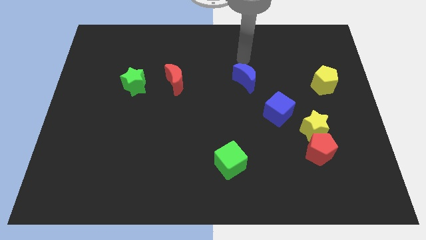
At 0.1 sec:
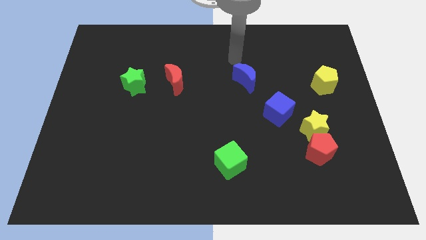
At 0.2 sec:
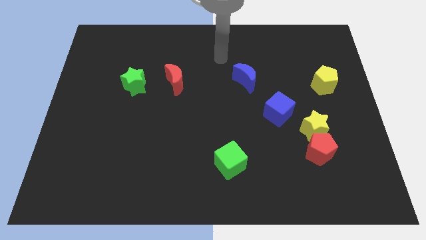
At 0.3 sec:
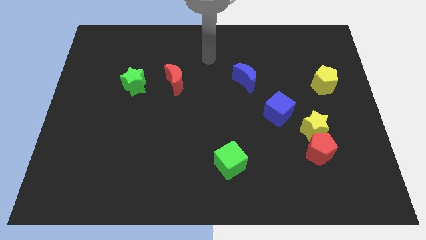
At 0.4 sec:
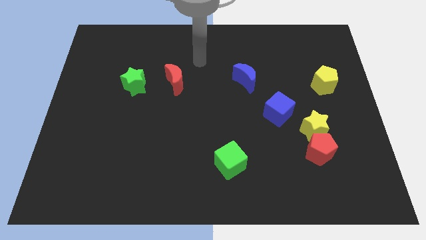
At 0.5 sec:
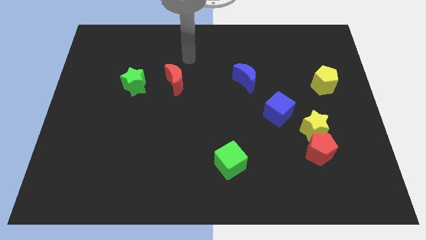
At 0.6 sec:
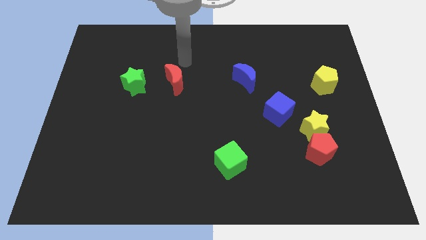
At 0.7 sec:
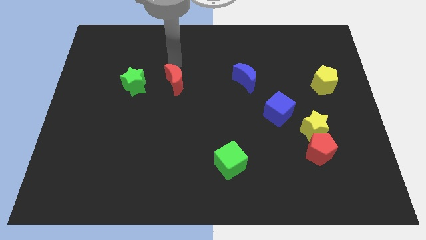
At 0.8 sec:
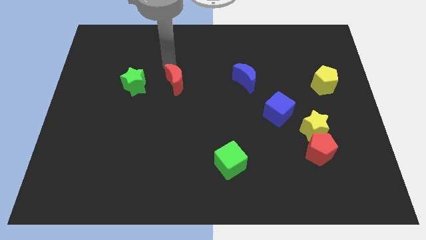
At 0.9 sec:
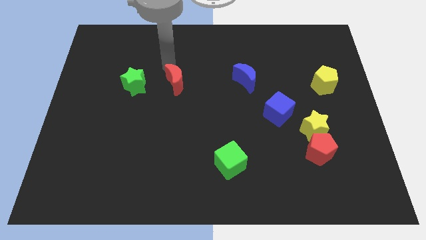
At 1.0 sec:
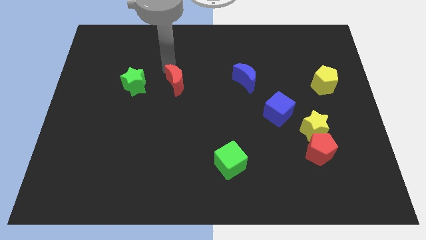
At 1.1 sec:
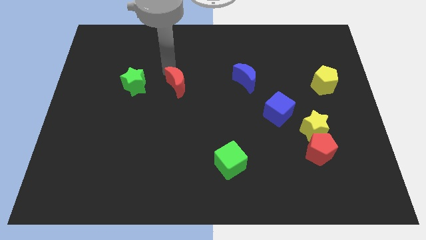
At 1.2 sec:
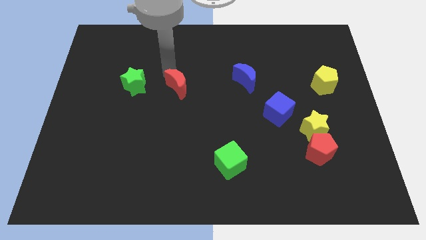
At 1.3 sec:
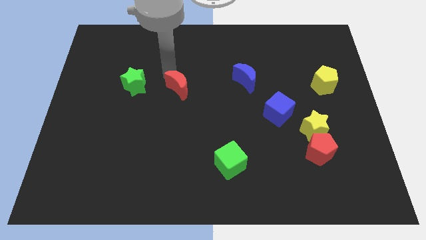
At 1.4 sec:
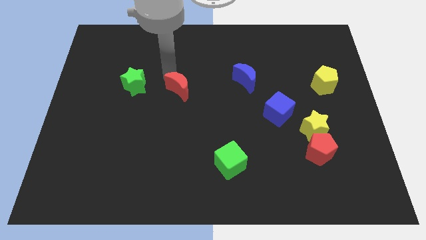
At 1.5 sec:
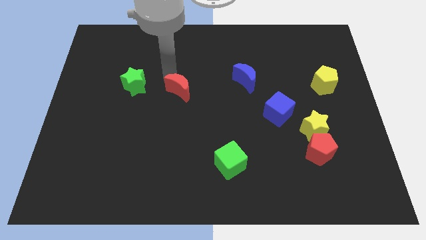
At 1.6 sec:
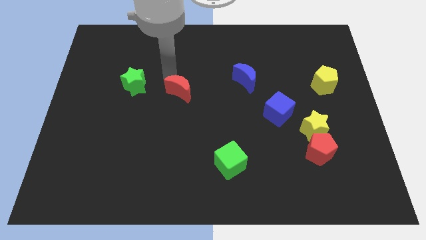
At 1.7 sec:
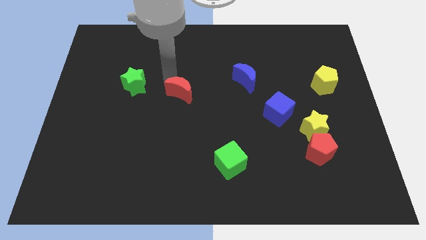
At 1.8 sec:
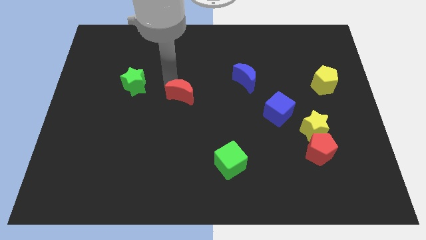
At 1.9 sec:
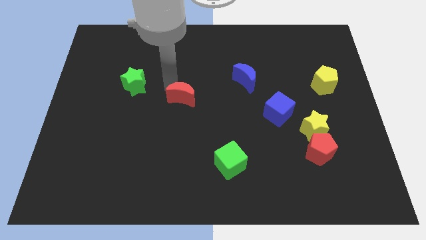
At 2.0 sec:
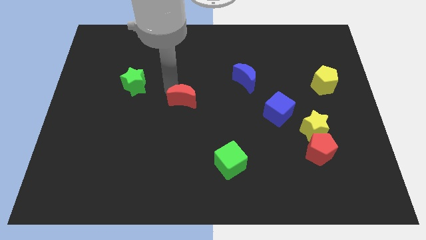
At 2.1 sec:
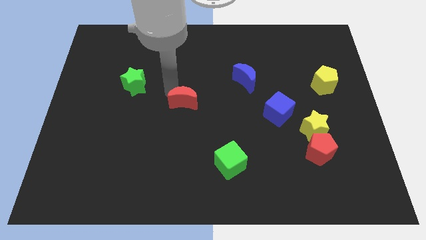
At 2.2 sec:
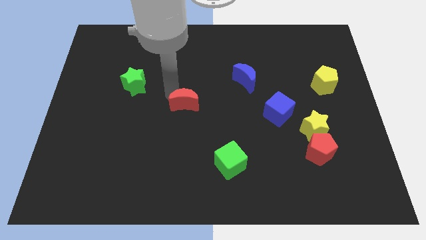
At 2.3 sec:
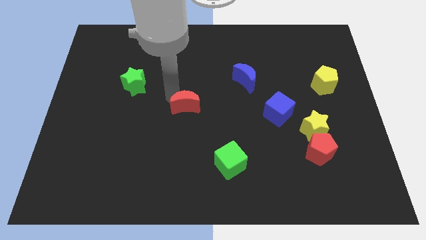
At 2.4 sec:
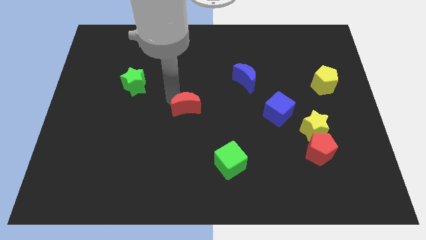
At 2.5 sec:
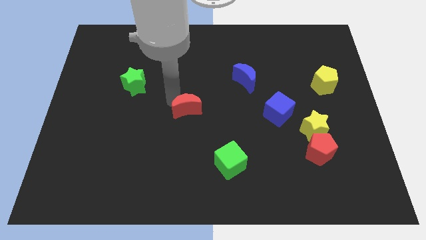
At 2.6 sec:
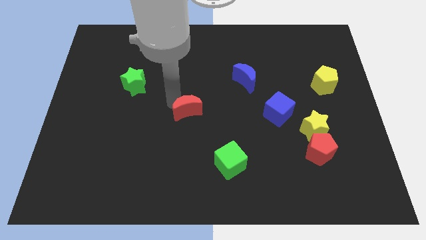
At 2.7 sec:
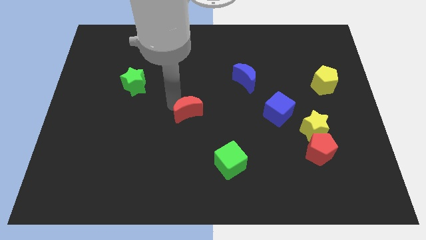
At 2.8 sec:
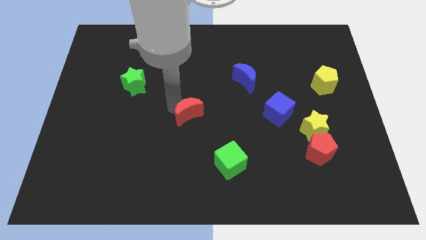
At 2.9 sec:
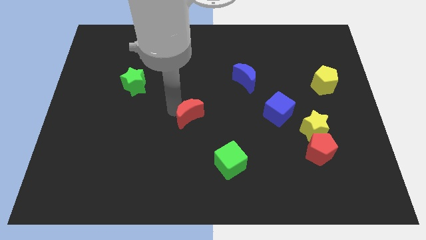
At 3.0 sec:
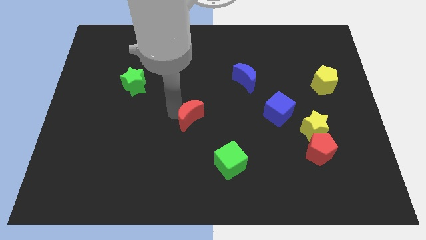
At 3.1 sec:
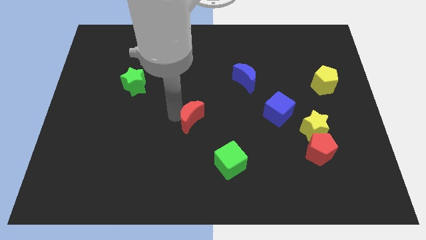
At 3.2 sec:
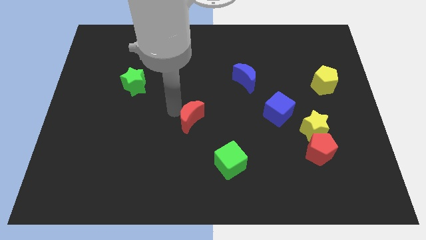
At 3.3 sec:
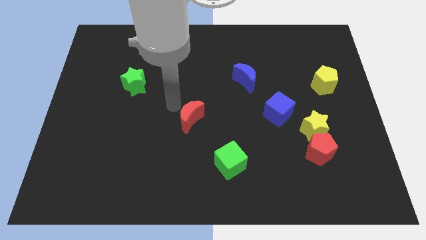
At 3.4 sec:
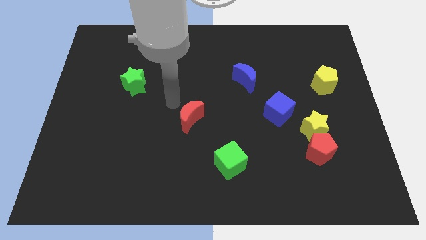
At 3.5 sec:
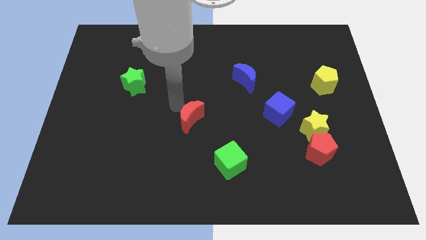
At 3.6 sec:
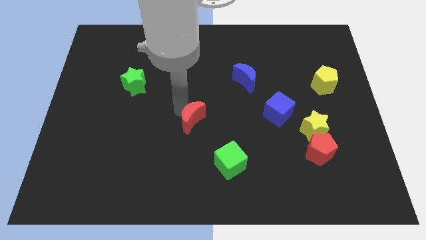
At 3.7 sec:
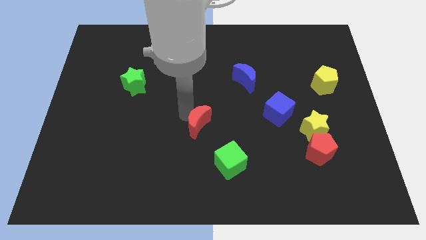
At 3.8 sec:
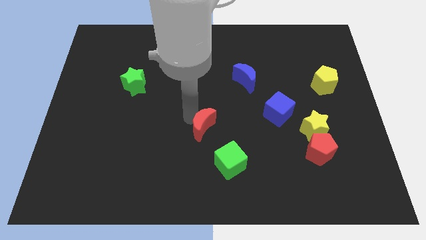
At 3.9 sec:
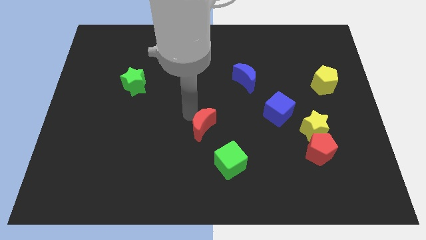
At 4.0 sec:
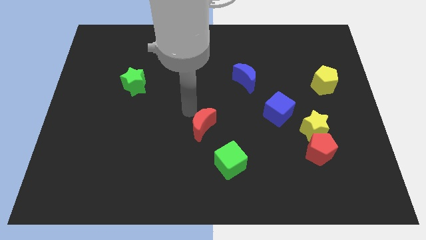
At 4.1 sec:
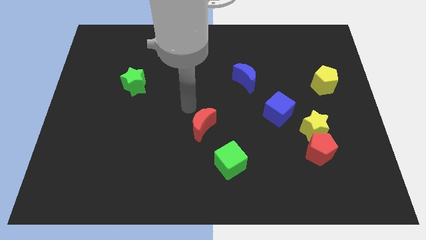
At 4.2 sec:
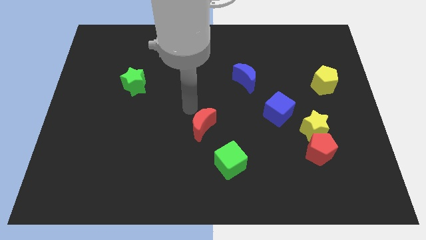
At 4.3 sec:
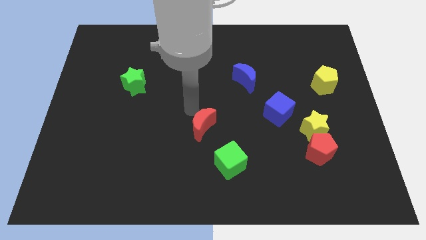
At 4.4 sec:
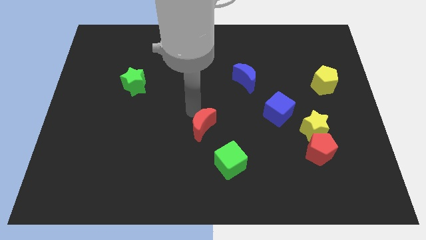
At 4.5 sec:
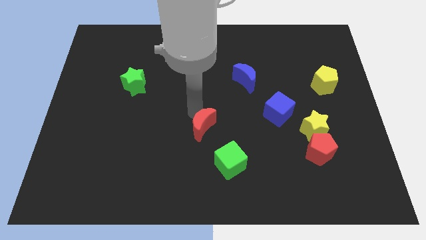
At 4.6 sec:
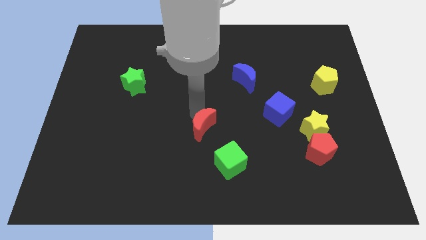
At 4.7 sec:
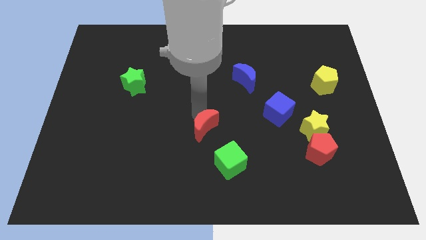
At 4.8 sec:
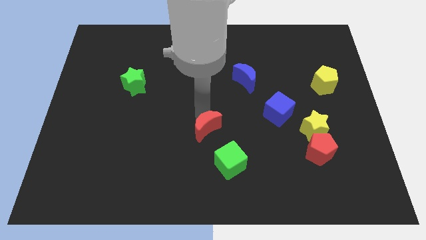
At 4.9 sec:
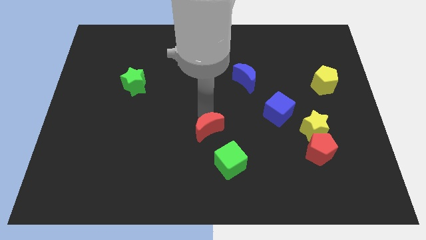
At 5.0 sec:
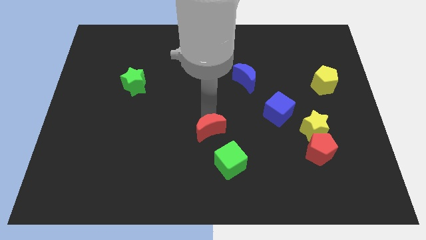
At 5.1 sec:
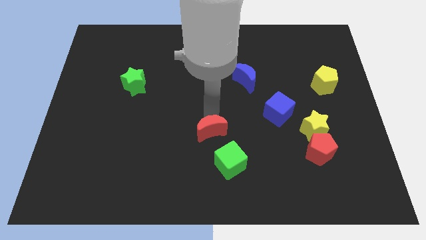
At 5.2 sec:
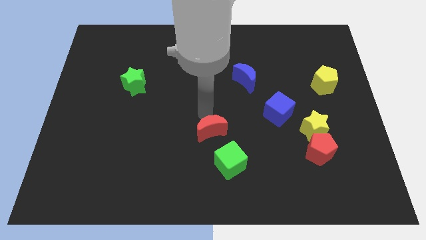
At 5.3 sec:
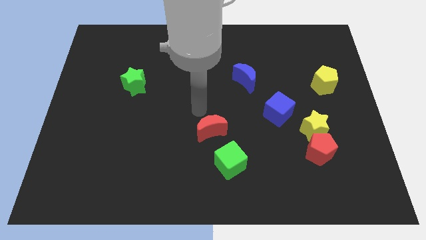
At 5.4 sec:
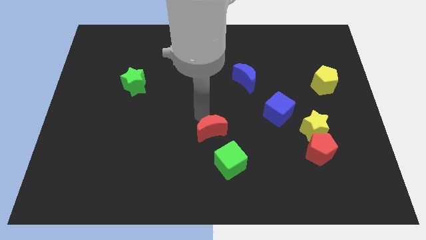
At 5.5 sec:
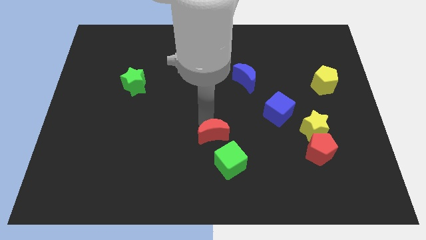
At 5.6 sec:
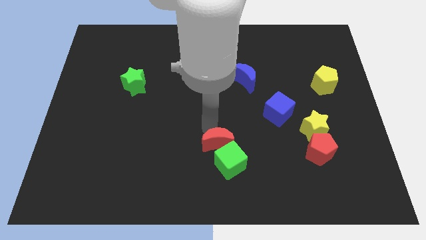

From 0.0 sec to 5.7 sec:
move the red moon to the green cube

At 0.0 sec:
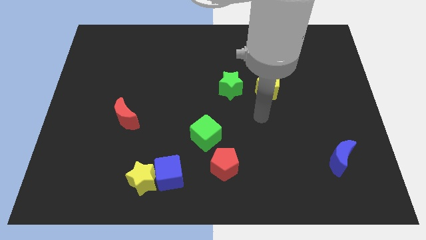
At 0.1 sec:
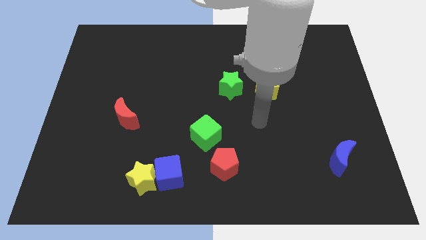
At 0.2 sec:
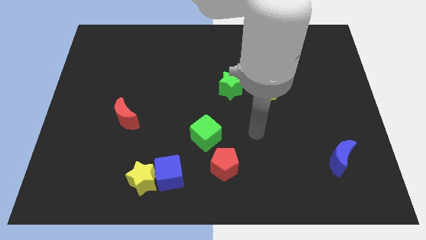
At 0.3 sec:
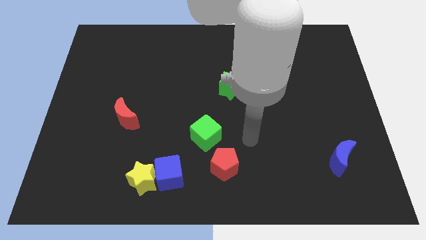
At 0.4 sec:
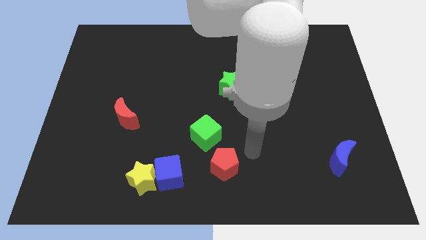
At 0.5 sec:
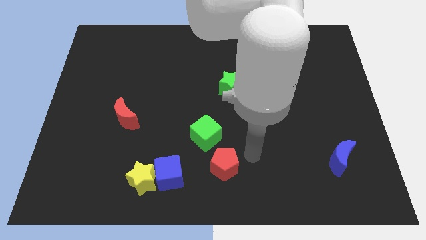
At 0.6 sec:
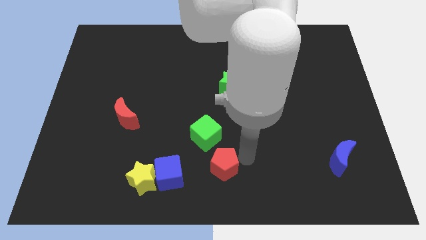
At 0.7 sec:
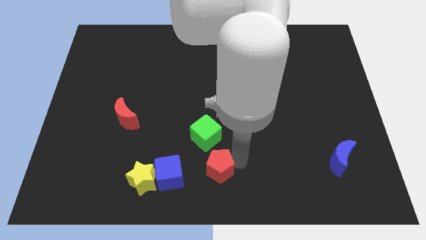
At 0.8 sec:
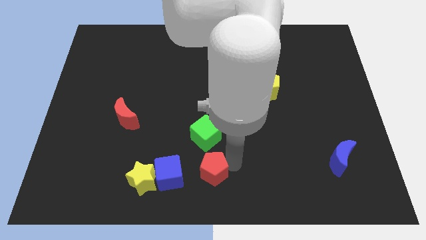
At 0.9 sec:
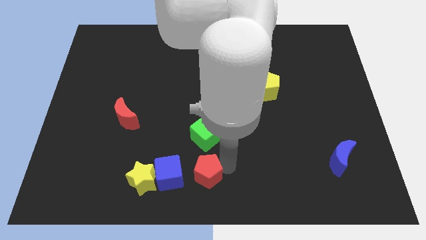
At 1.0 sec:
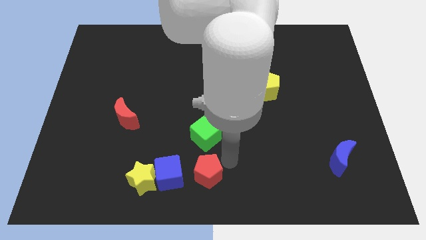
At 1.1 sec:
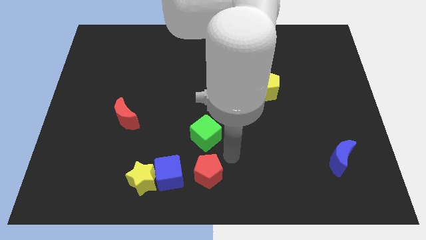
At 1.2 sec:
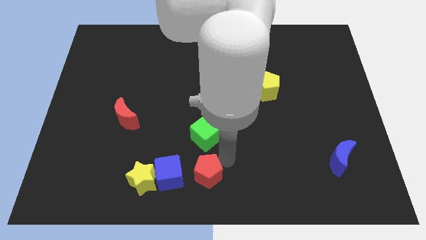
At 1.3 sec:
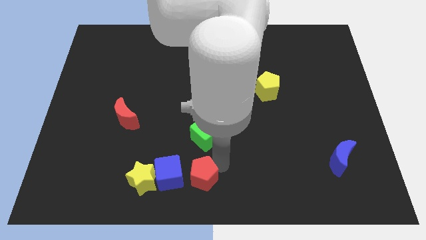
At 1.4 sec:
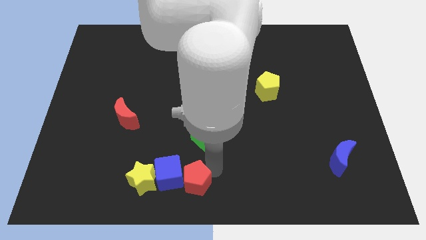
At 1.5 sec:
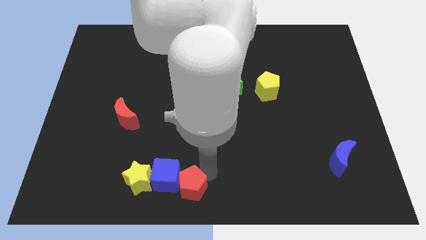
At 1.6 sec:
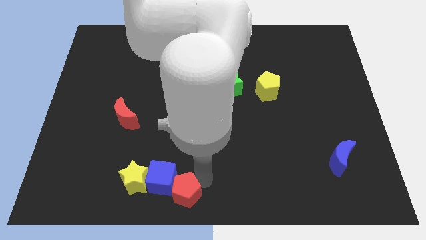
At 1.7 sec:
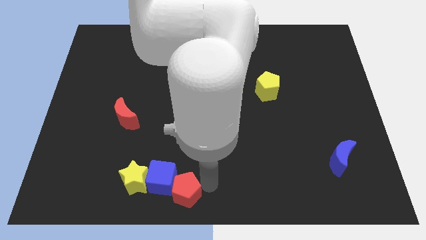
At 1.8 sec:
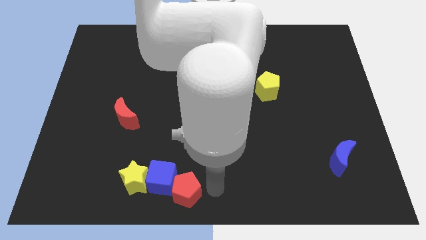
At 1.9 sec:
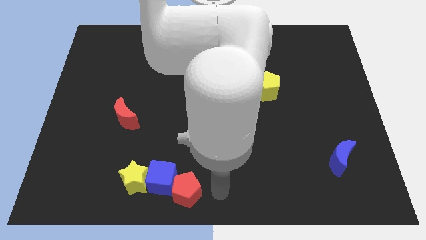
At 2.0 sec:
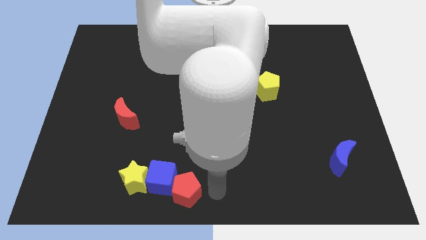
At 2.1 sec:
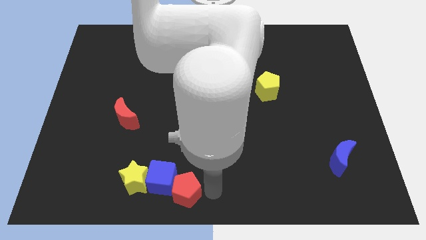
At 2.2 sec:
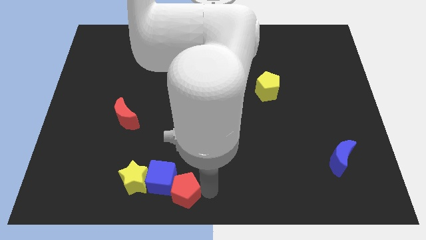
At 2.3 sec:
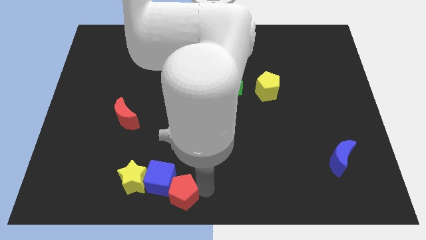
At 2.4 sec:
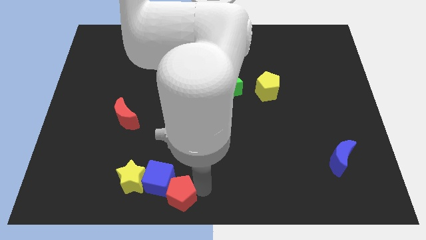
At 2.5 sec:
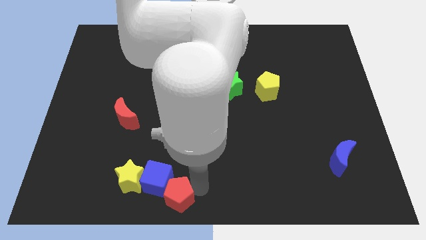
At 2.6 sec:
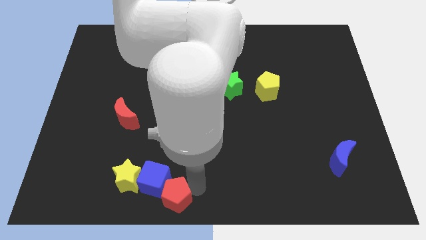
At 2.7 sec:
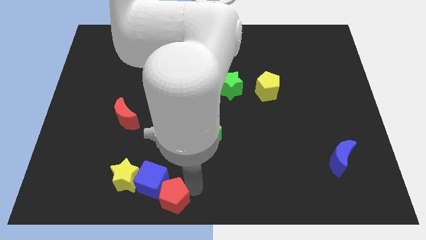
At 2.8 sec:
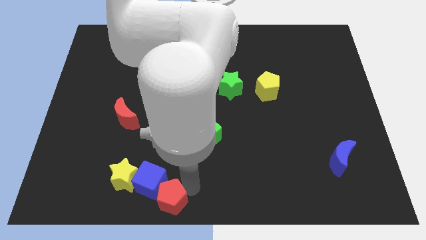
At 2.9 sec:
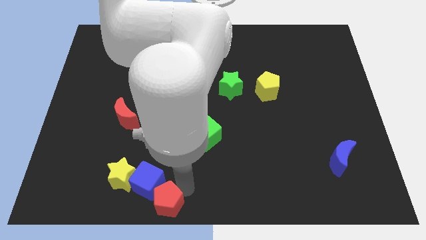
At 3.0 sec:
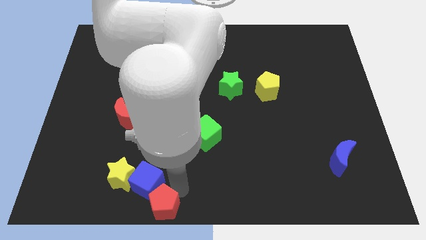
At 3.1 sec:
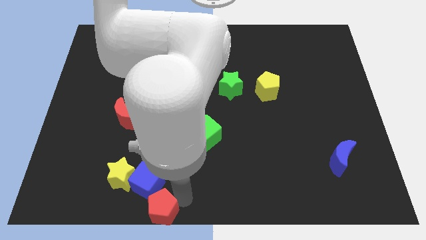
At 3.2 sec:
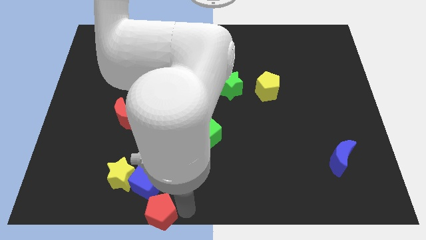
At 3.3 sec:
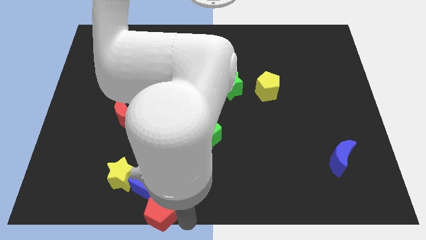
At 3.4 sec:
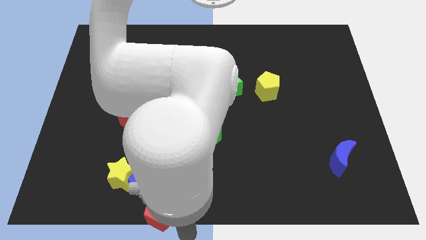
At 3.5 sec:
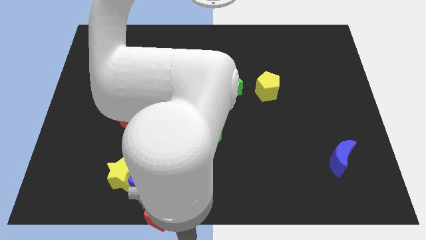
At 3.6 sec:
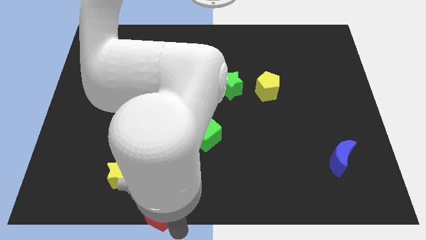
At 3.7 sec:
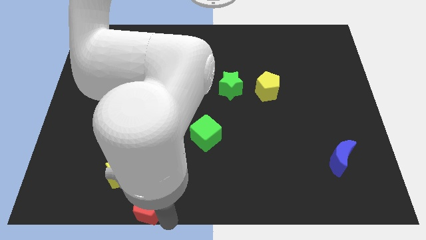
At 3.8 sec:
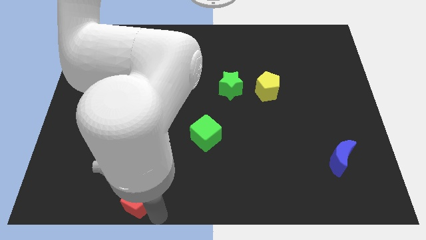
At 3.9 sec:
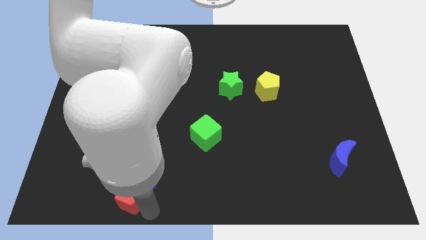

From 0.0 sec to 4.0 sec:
push the red pentagon close to the yellow star
